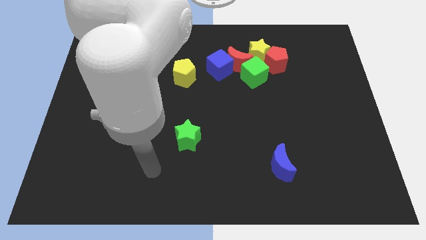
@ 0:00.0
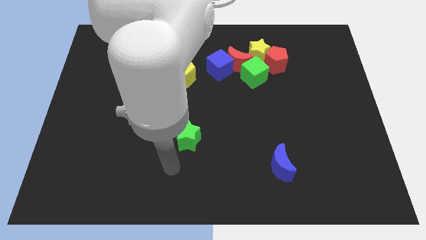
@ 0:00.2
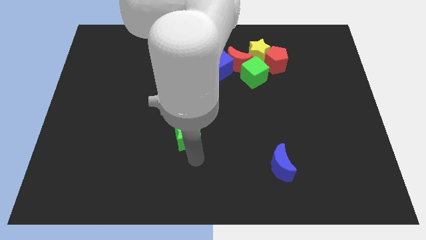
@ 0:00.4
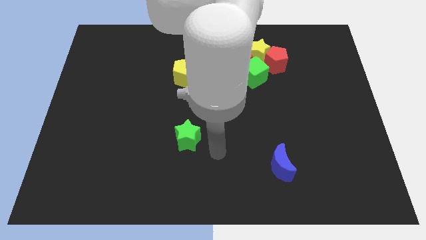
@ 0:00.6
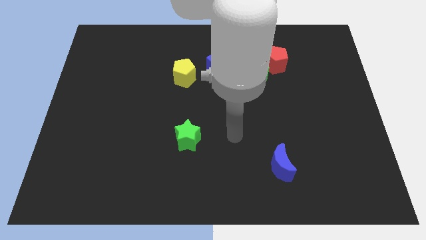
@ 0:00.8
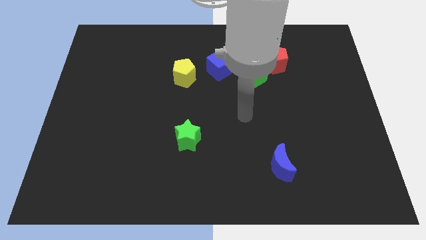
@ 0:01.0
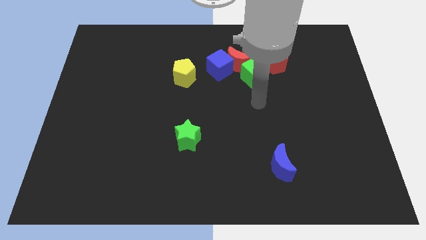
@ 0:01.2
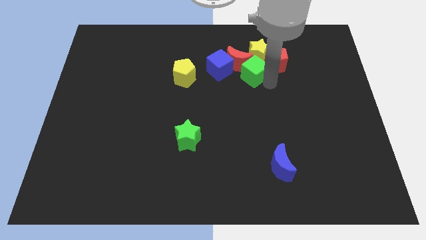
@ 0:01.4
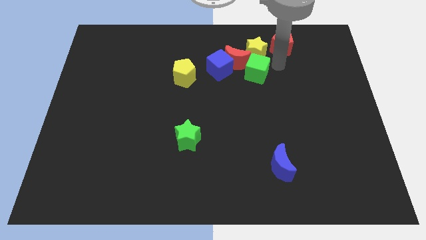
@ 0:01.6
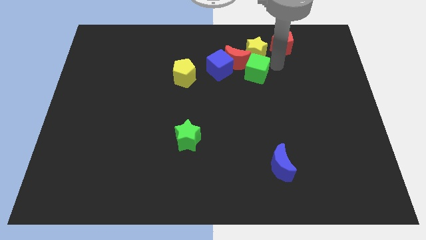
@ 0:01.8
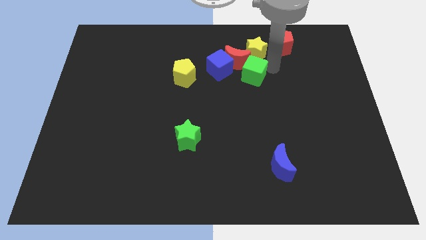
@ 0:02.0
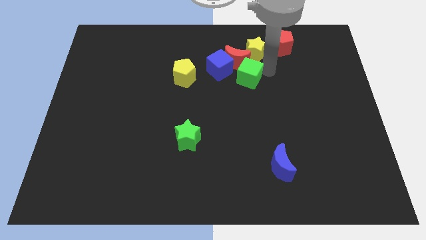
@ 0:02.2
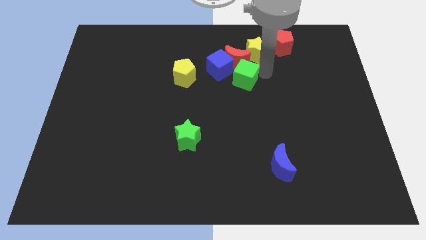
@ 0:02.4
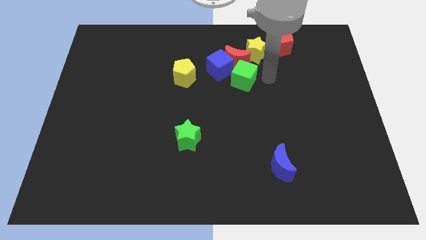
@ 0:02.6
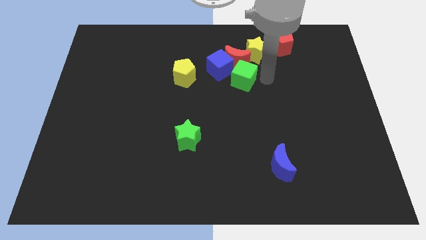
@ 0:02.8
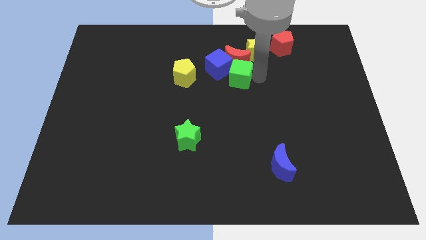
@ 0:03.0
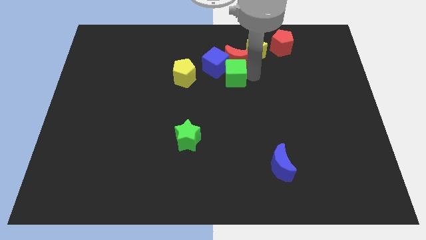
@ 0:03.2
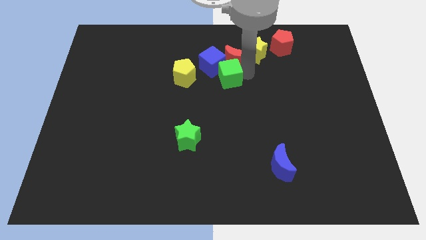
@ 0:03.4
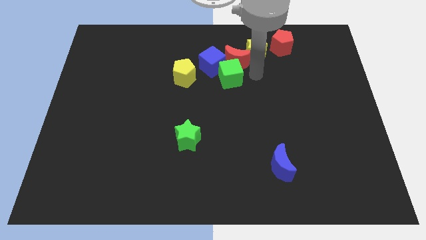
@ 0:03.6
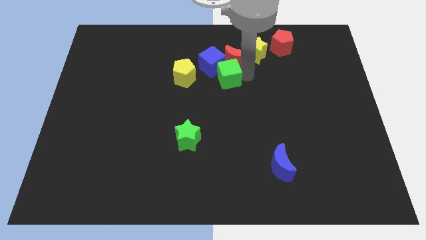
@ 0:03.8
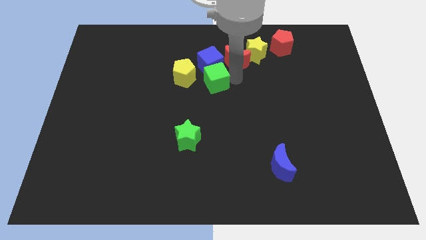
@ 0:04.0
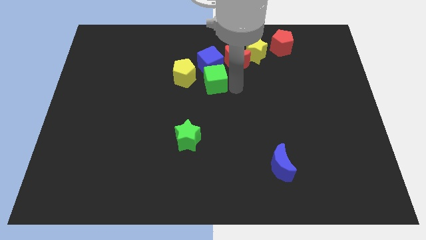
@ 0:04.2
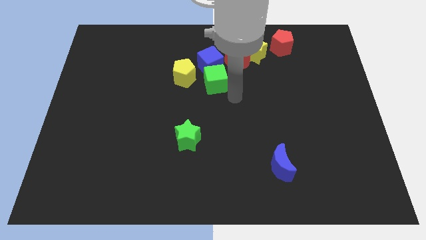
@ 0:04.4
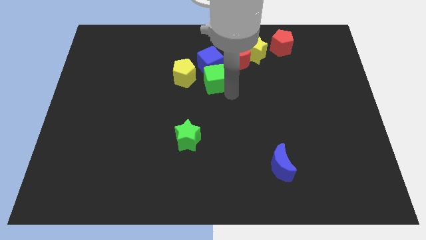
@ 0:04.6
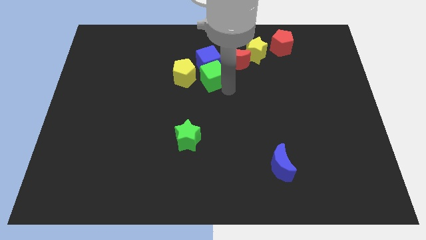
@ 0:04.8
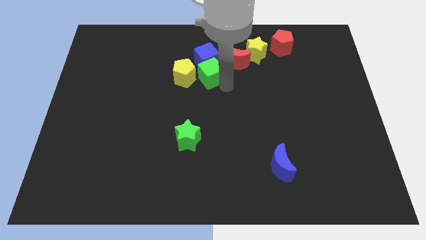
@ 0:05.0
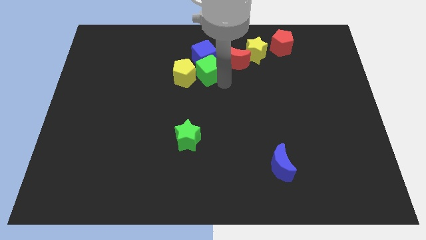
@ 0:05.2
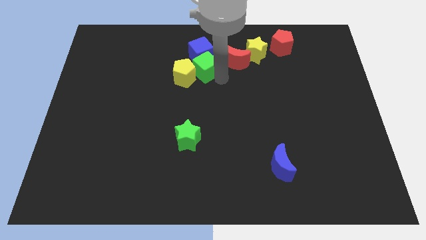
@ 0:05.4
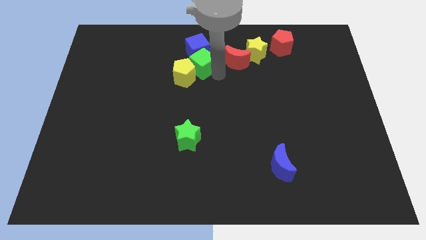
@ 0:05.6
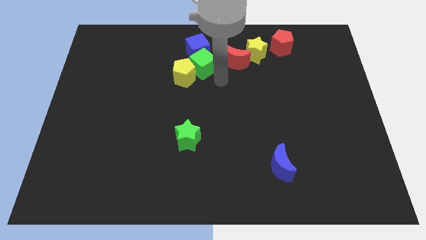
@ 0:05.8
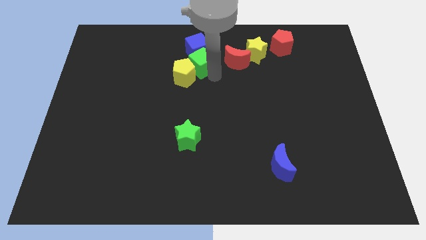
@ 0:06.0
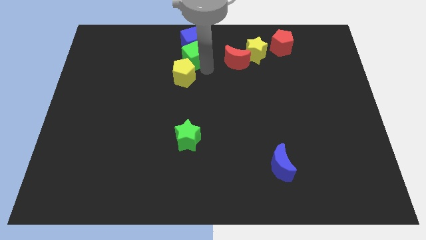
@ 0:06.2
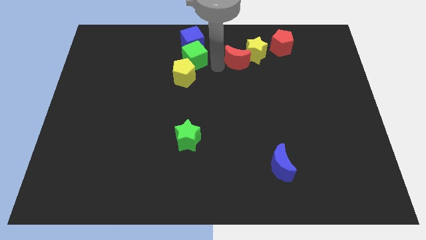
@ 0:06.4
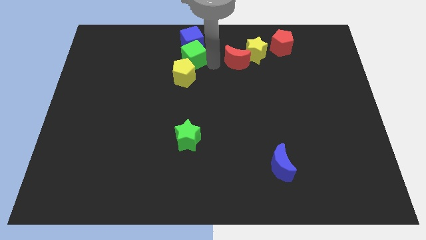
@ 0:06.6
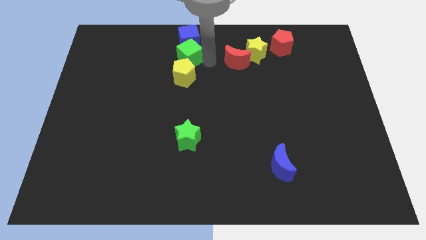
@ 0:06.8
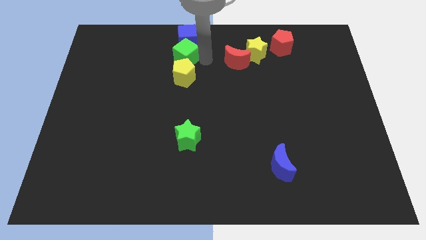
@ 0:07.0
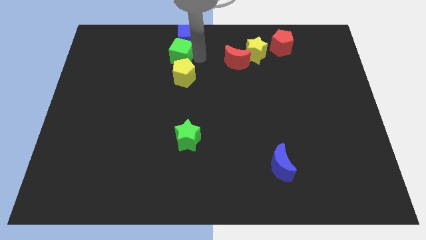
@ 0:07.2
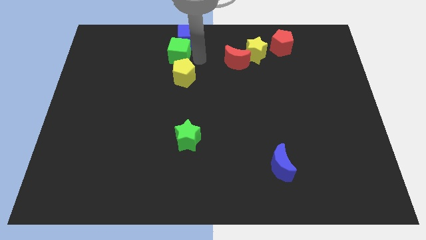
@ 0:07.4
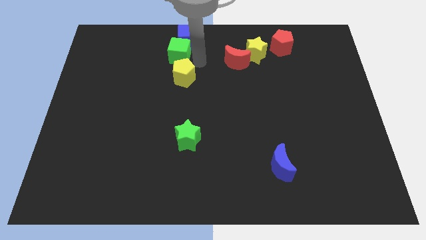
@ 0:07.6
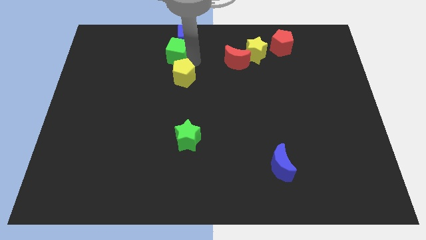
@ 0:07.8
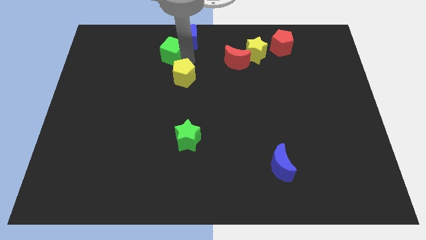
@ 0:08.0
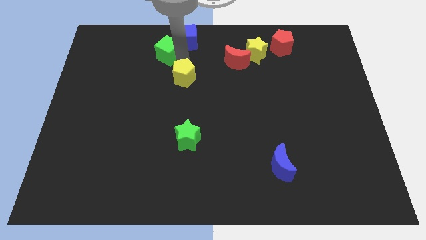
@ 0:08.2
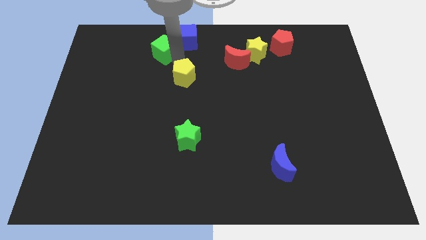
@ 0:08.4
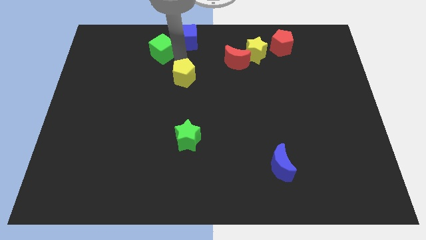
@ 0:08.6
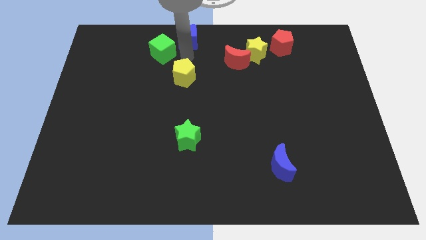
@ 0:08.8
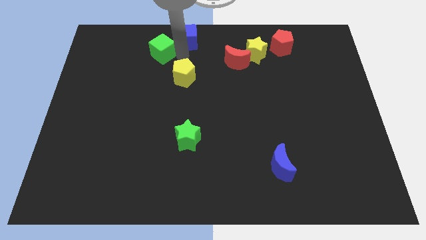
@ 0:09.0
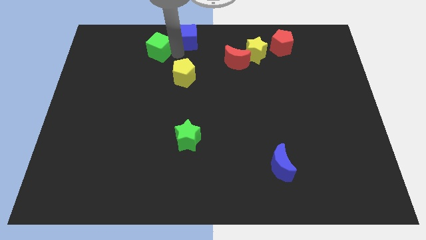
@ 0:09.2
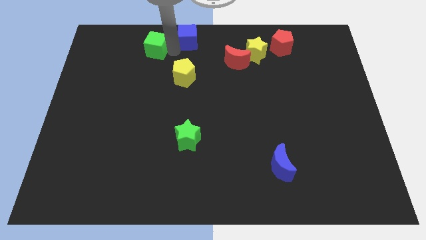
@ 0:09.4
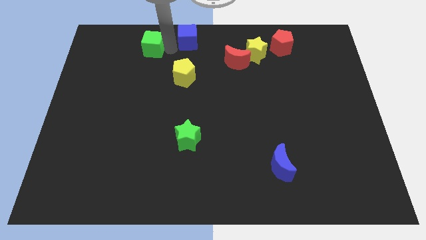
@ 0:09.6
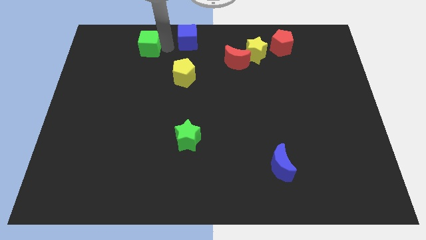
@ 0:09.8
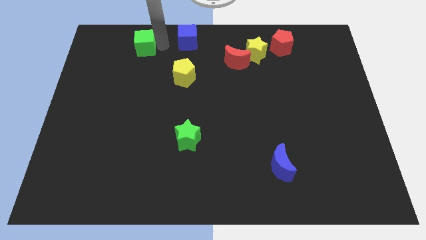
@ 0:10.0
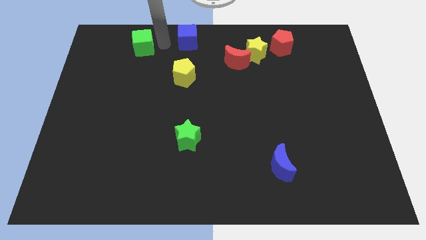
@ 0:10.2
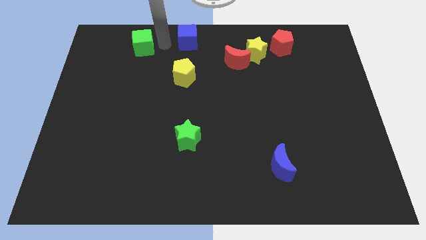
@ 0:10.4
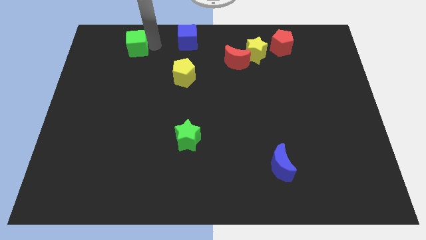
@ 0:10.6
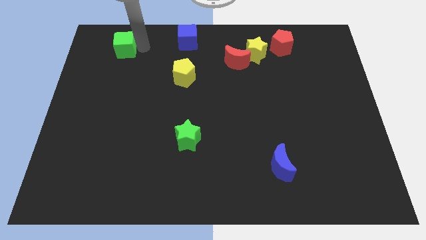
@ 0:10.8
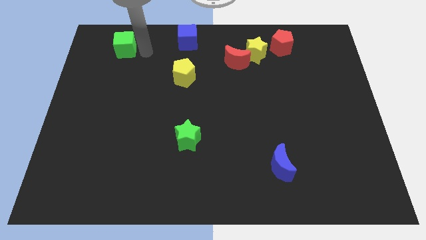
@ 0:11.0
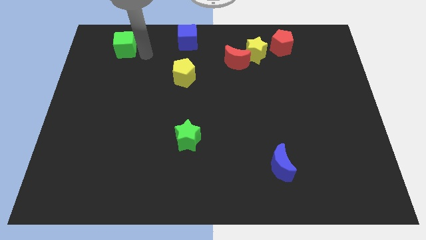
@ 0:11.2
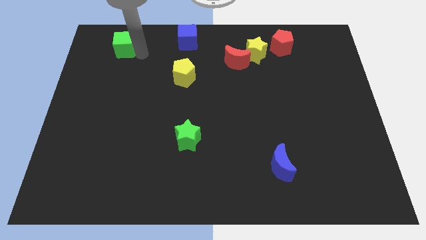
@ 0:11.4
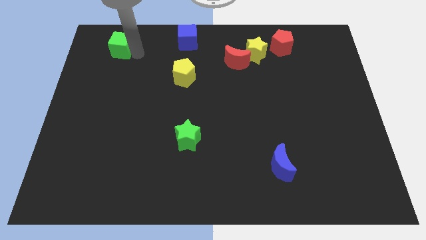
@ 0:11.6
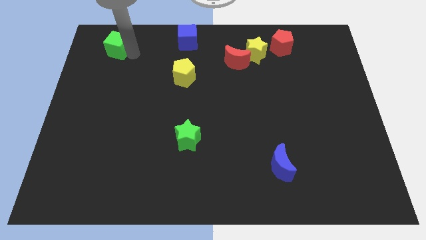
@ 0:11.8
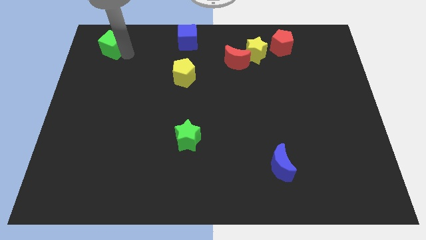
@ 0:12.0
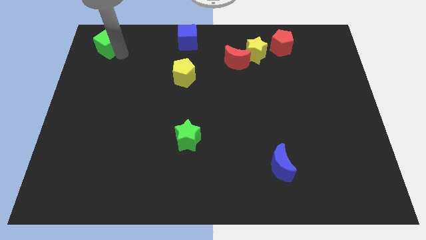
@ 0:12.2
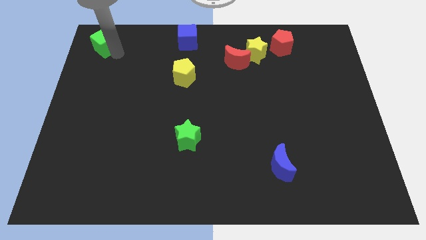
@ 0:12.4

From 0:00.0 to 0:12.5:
put the green cube to the top left

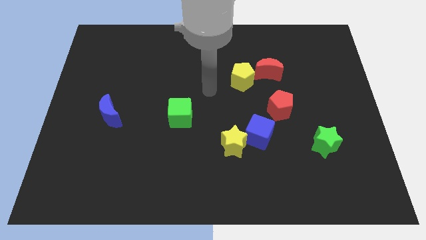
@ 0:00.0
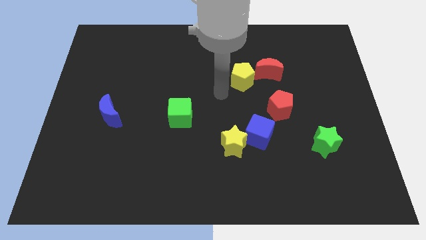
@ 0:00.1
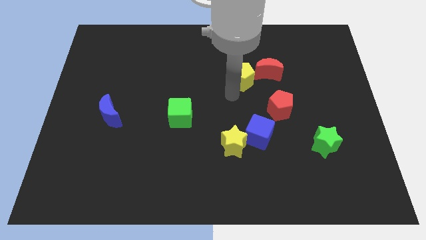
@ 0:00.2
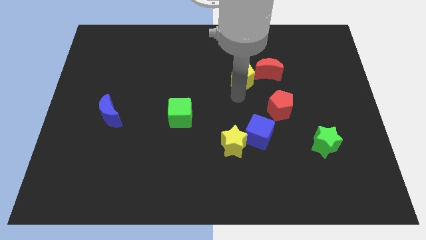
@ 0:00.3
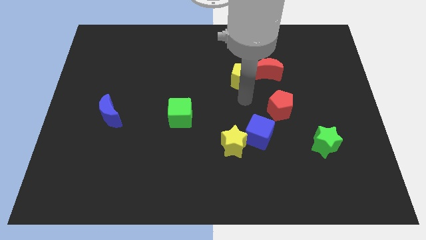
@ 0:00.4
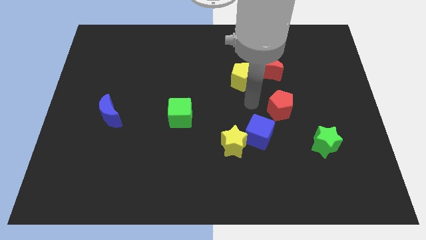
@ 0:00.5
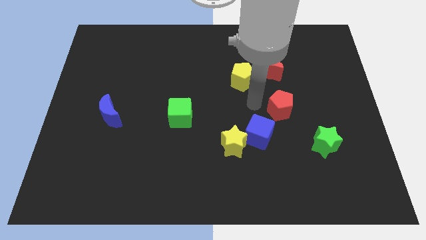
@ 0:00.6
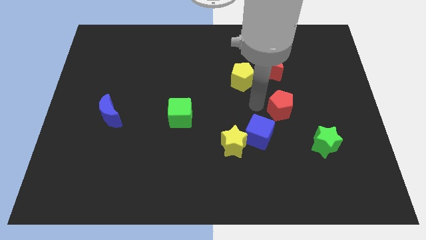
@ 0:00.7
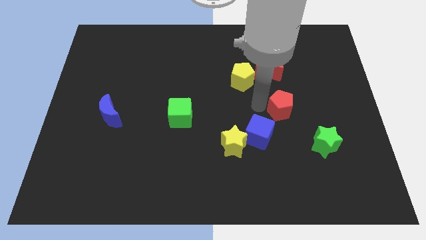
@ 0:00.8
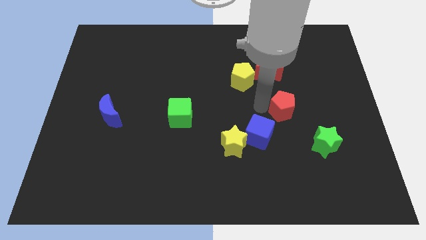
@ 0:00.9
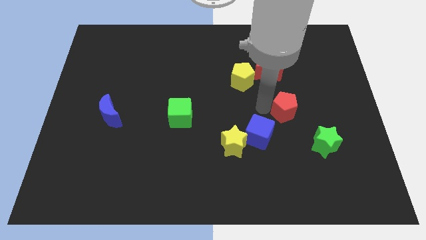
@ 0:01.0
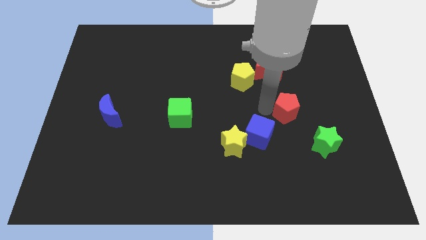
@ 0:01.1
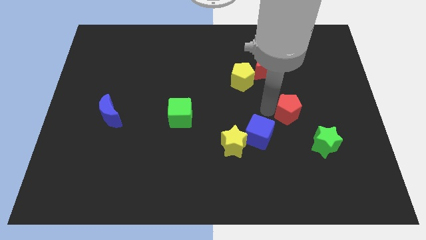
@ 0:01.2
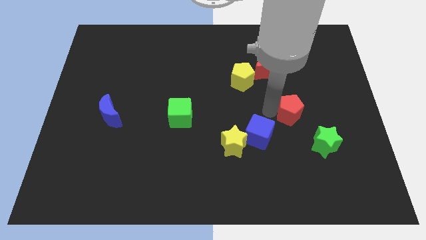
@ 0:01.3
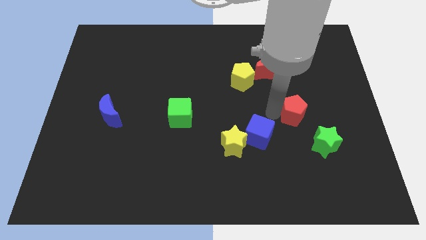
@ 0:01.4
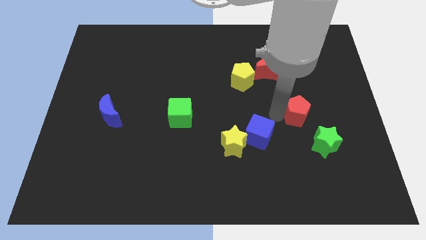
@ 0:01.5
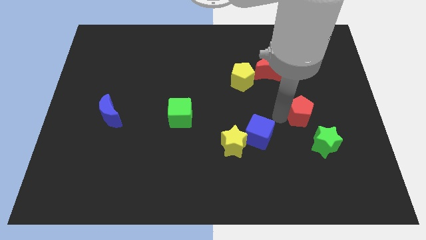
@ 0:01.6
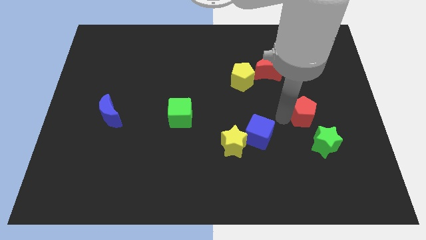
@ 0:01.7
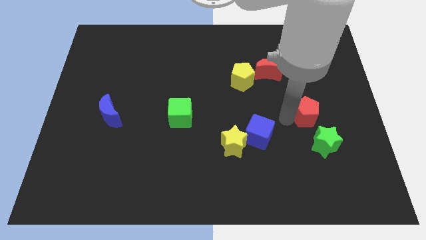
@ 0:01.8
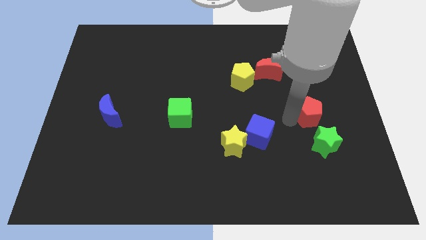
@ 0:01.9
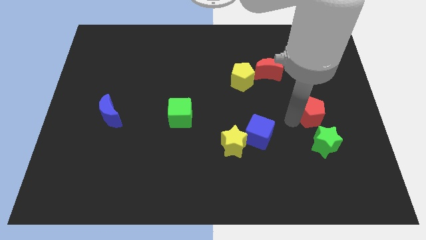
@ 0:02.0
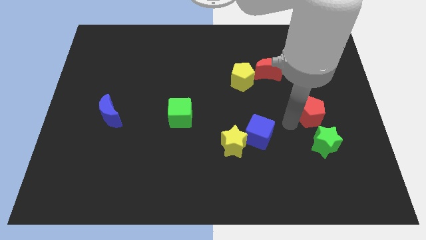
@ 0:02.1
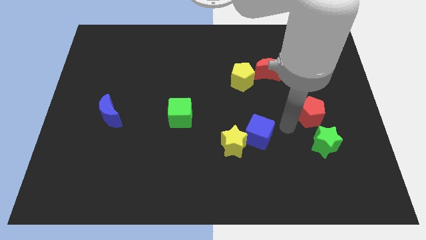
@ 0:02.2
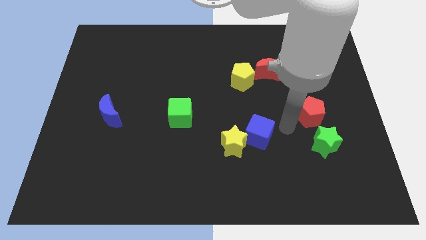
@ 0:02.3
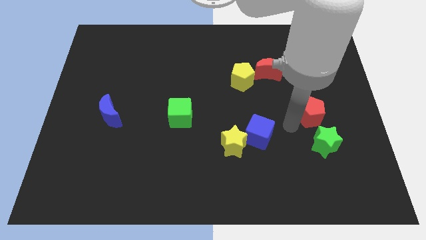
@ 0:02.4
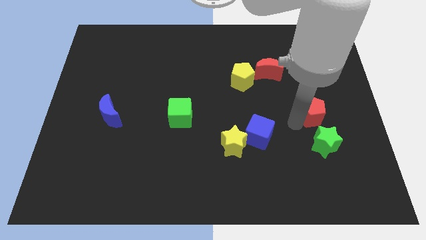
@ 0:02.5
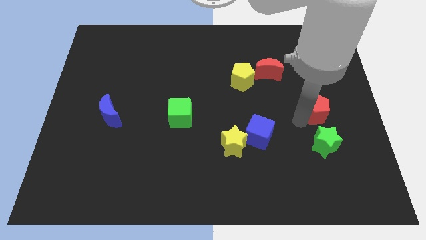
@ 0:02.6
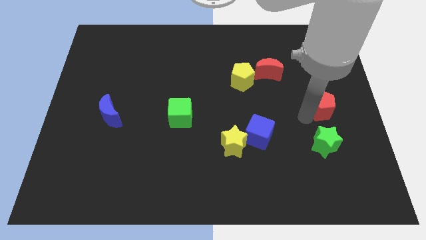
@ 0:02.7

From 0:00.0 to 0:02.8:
slide the red pentagon to the center right
